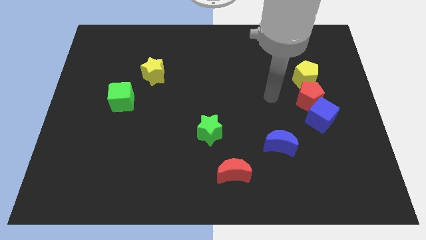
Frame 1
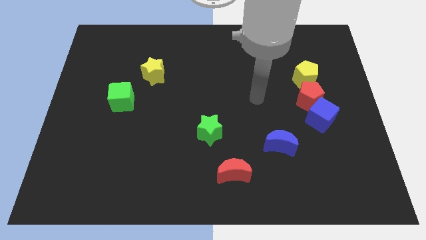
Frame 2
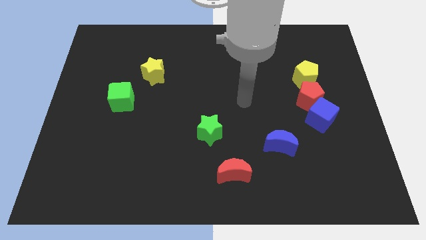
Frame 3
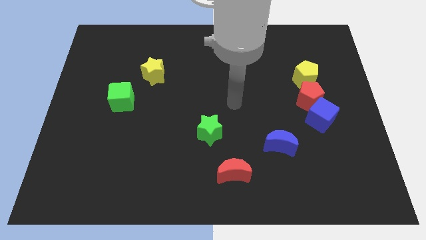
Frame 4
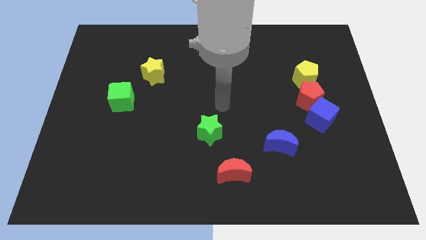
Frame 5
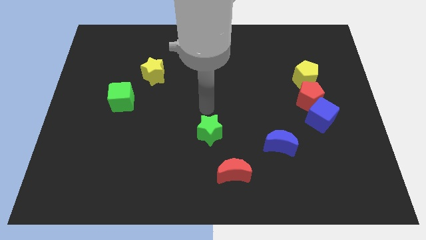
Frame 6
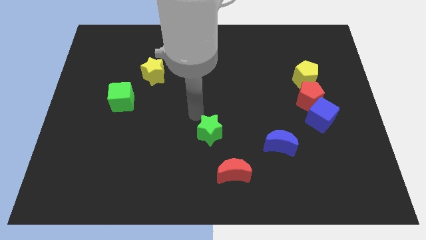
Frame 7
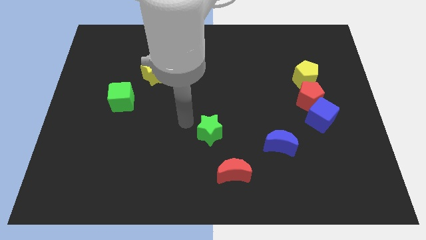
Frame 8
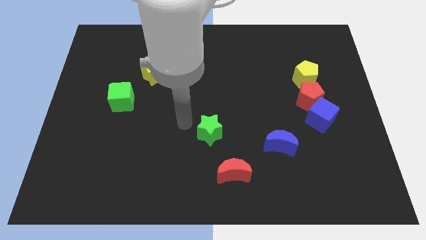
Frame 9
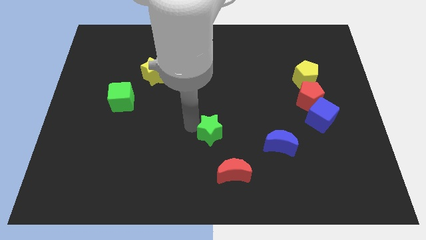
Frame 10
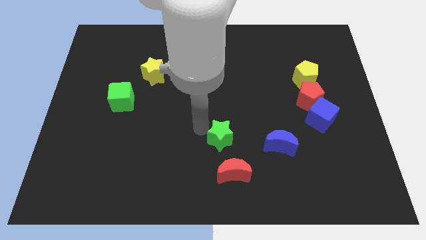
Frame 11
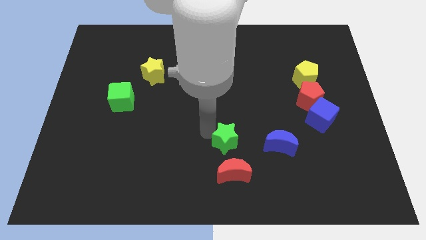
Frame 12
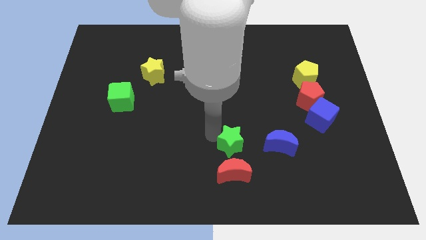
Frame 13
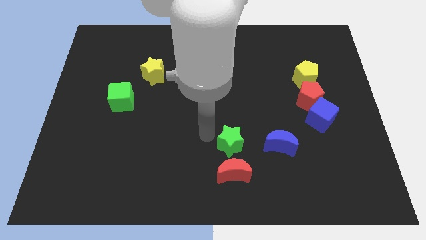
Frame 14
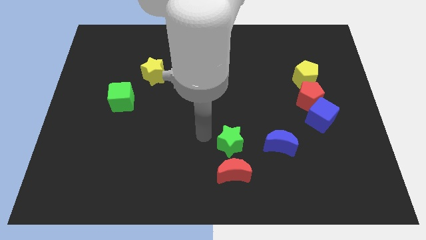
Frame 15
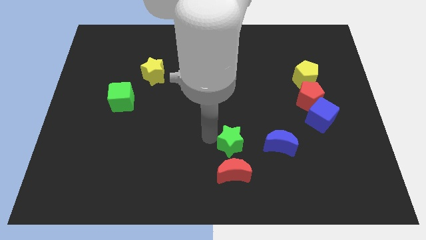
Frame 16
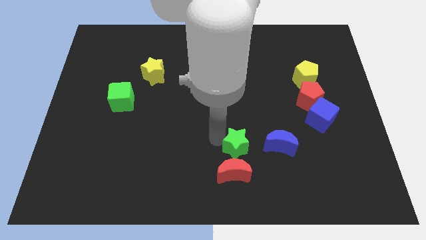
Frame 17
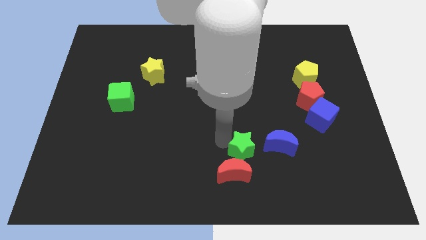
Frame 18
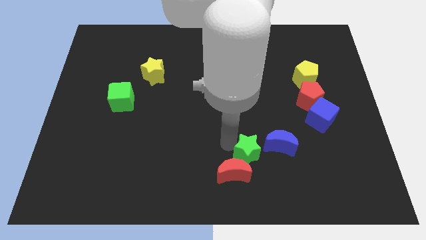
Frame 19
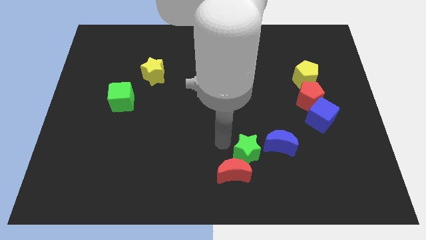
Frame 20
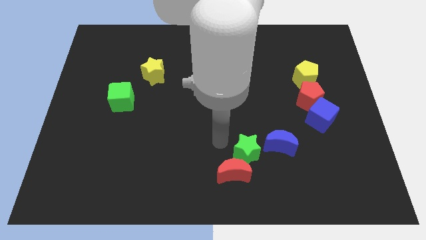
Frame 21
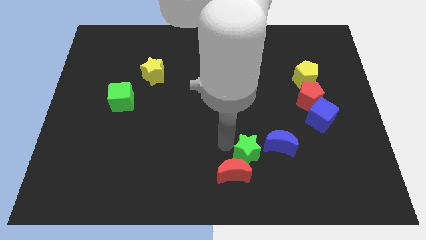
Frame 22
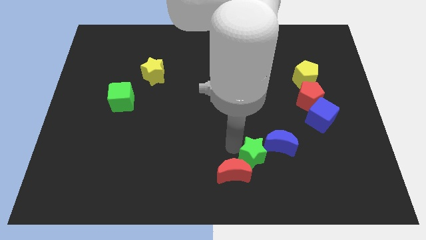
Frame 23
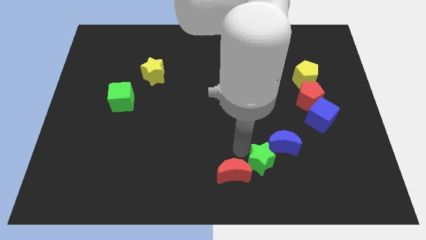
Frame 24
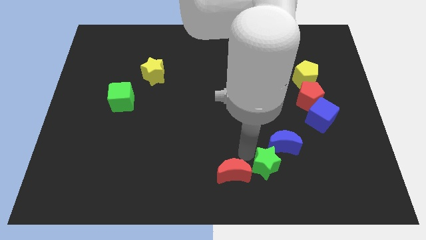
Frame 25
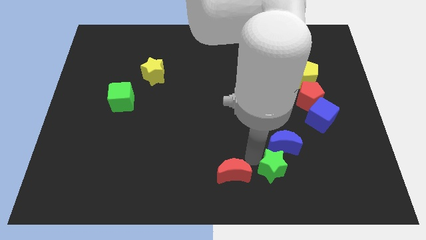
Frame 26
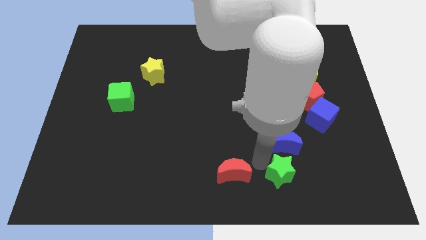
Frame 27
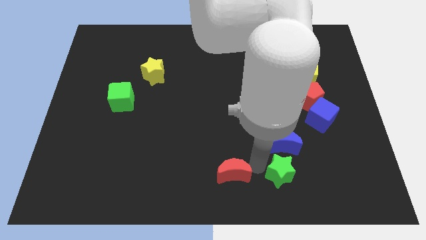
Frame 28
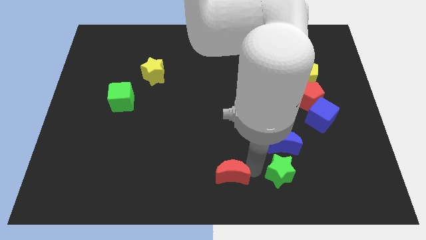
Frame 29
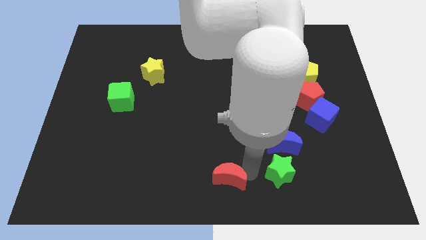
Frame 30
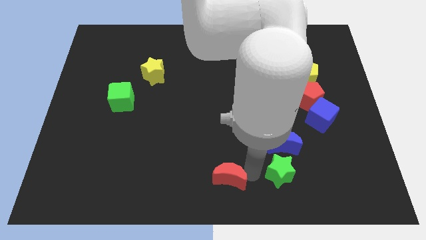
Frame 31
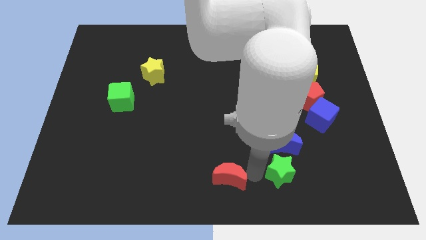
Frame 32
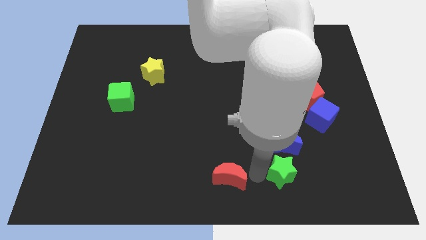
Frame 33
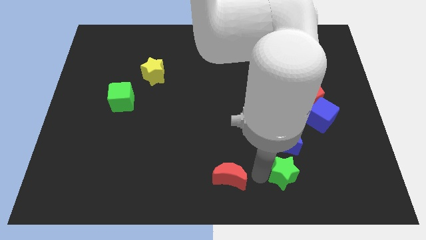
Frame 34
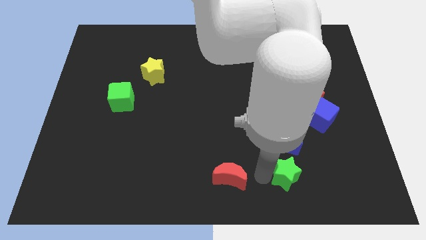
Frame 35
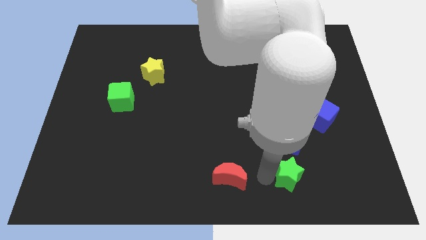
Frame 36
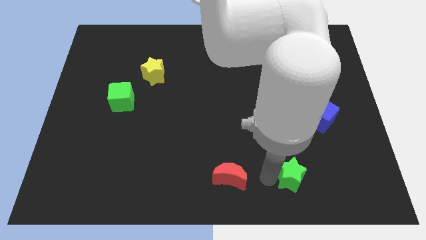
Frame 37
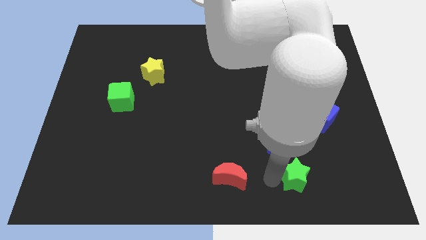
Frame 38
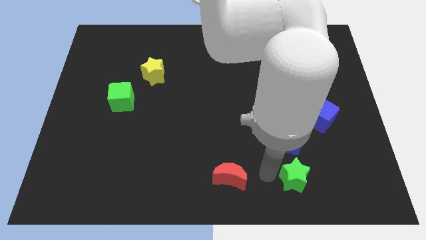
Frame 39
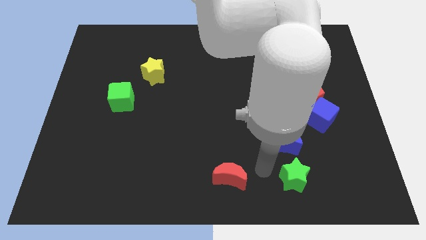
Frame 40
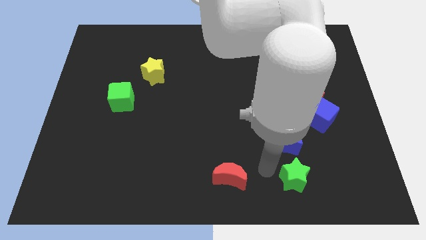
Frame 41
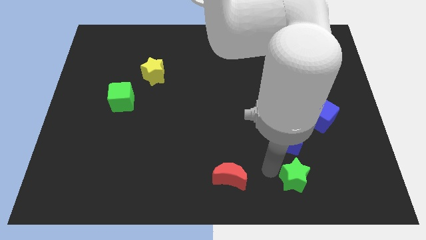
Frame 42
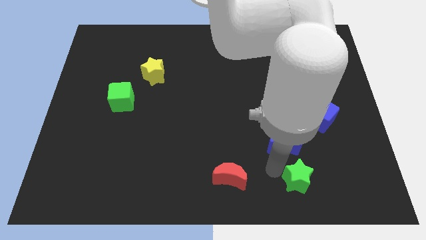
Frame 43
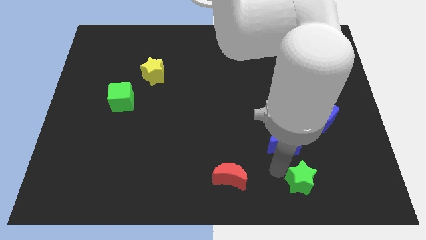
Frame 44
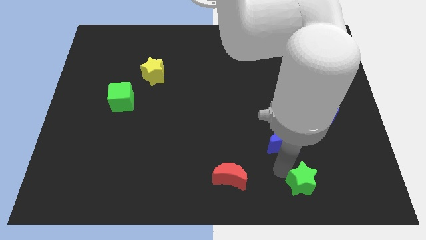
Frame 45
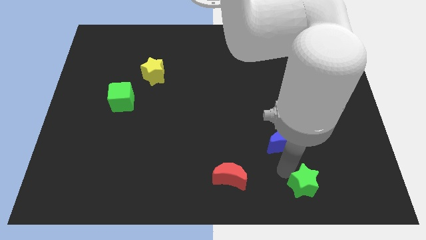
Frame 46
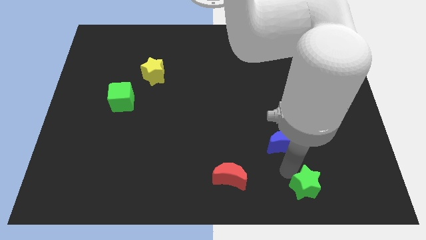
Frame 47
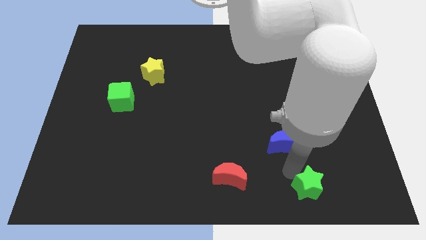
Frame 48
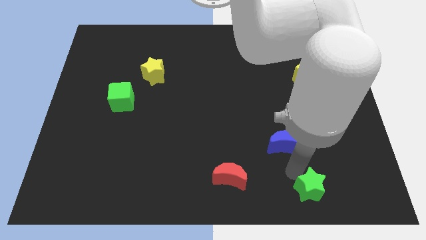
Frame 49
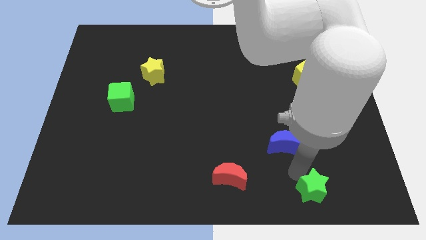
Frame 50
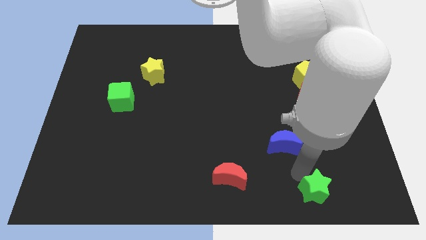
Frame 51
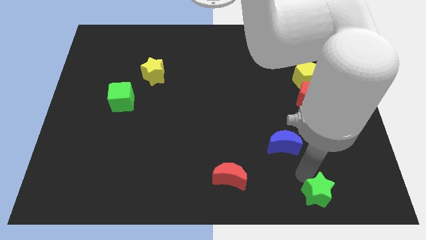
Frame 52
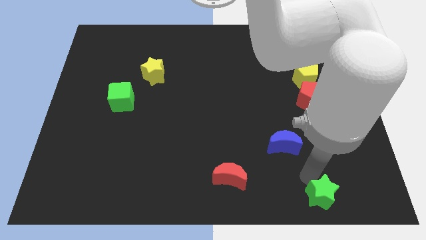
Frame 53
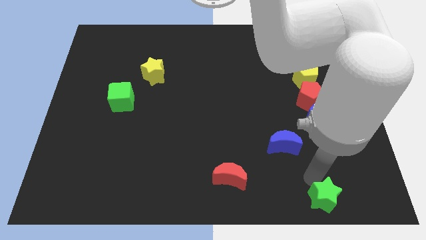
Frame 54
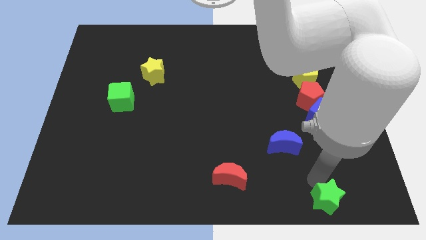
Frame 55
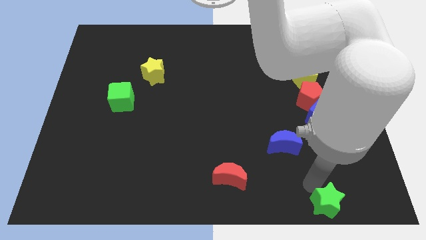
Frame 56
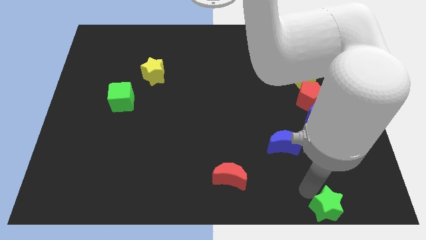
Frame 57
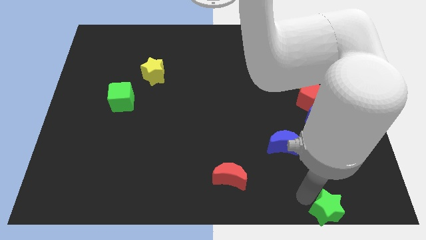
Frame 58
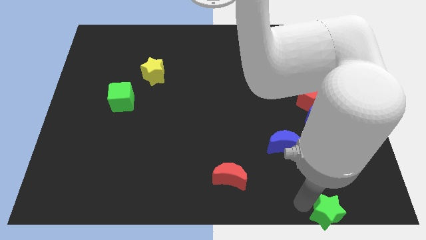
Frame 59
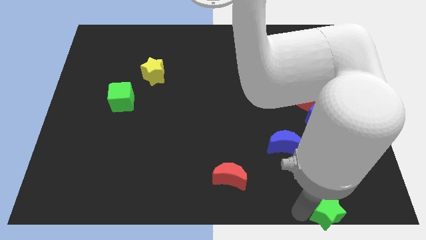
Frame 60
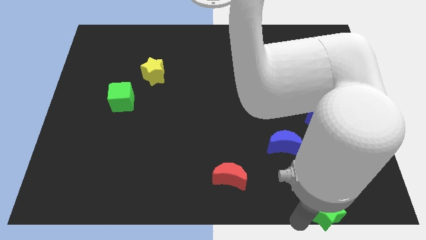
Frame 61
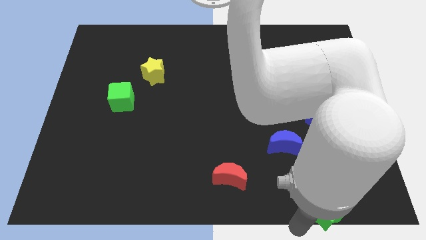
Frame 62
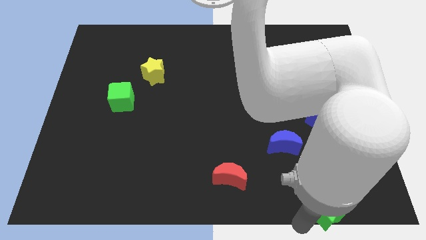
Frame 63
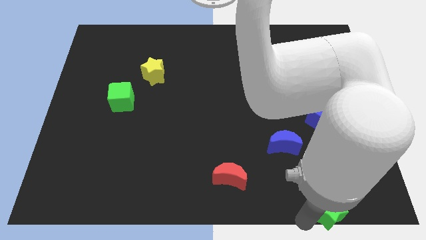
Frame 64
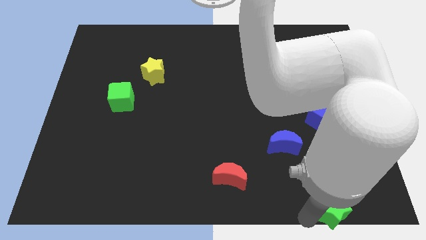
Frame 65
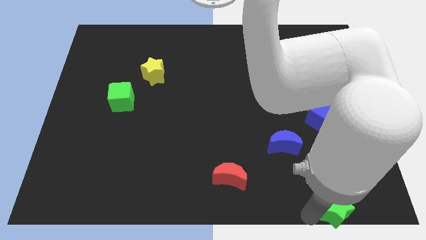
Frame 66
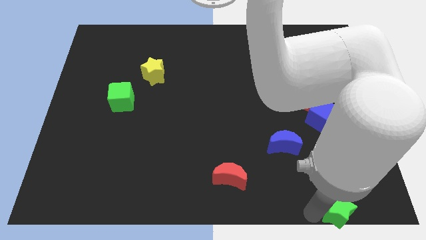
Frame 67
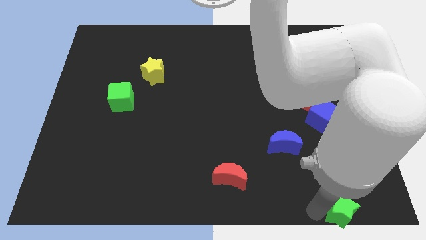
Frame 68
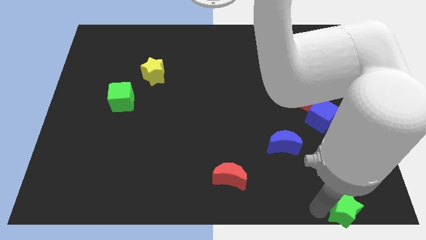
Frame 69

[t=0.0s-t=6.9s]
move the green star to the lower right corner

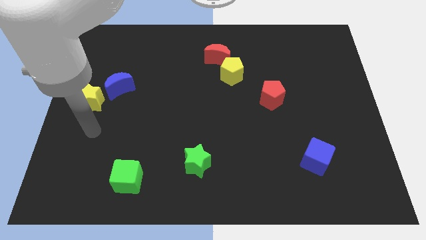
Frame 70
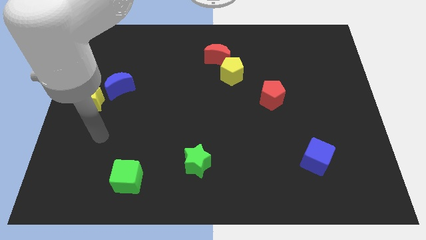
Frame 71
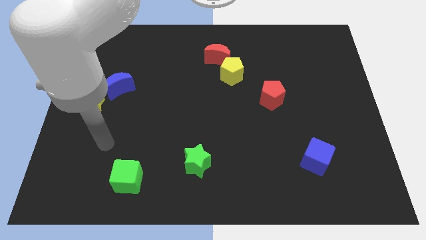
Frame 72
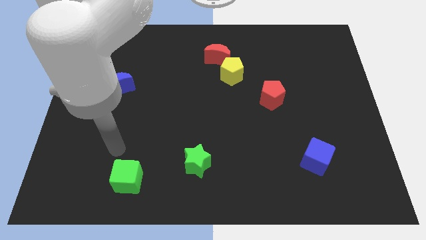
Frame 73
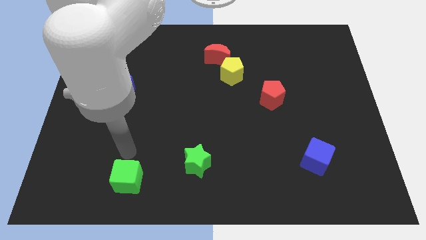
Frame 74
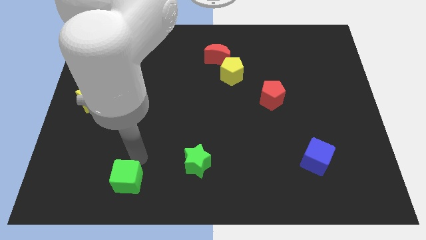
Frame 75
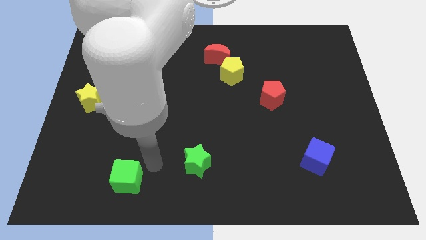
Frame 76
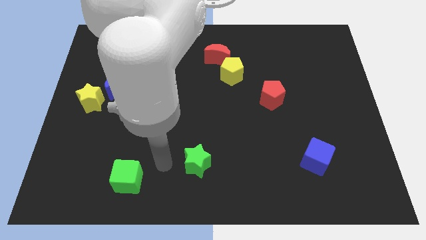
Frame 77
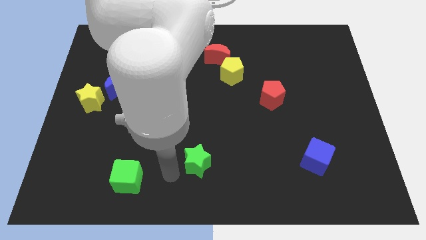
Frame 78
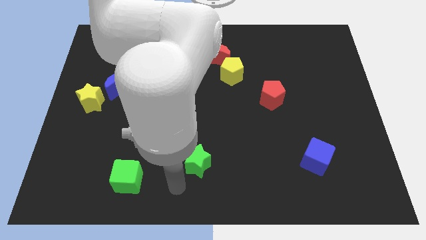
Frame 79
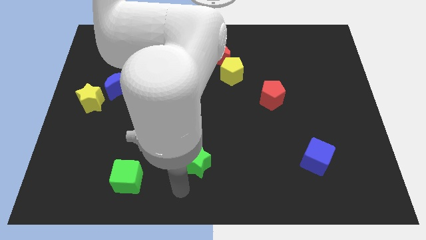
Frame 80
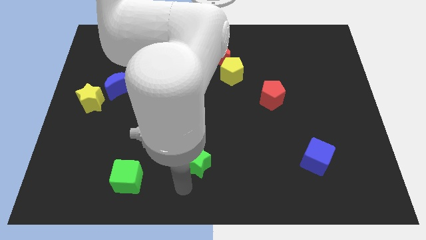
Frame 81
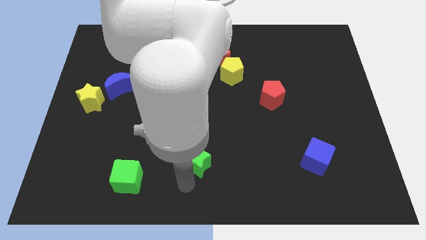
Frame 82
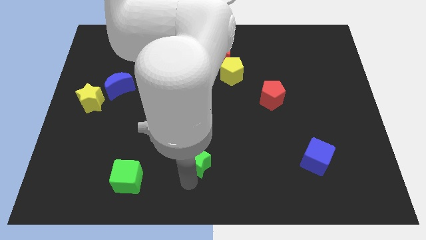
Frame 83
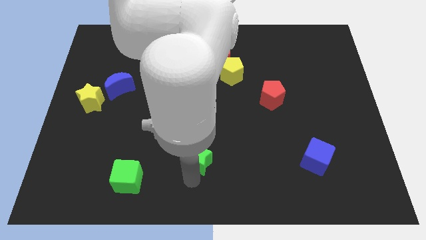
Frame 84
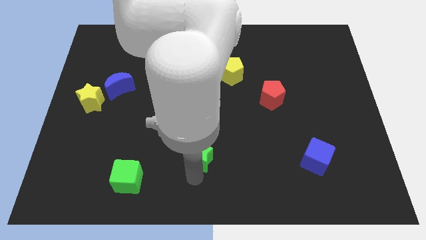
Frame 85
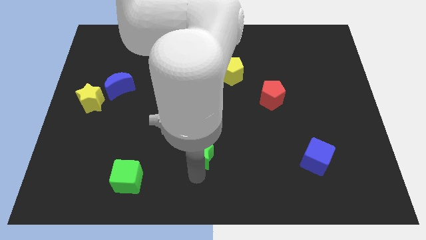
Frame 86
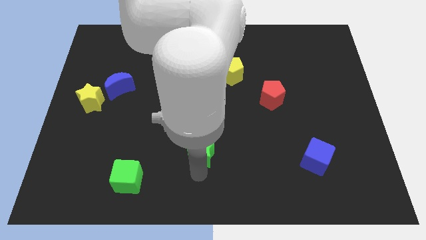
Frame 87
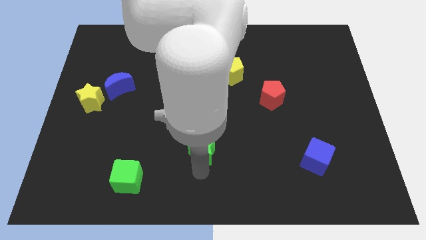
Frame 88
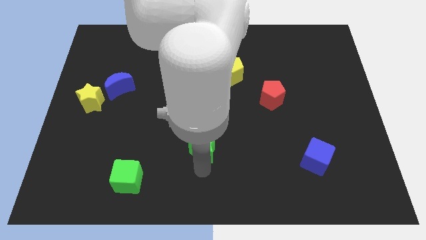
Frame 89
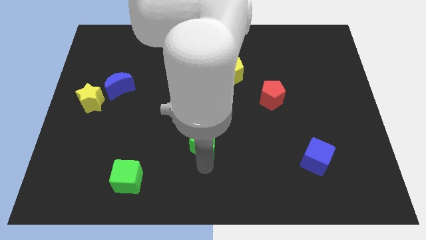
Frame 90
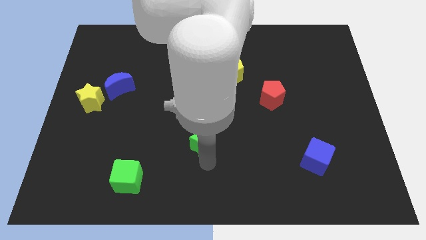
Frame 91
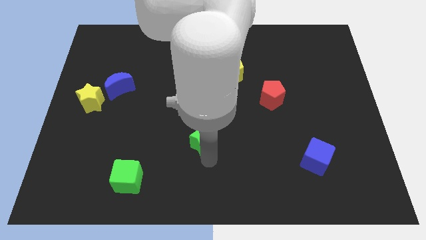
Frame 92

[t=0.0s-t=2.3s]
move the green star to the middle
